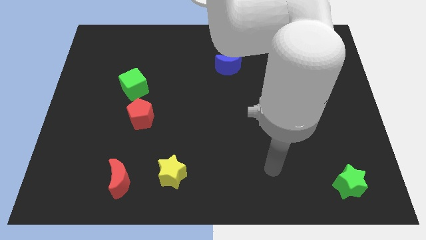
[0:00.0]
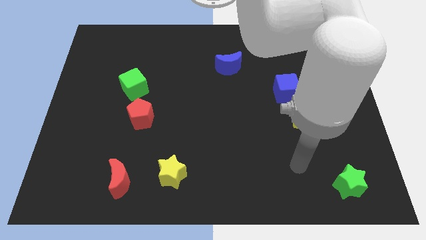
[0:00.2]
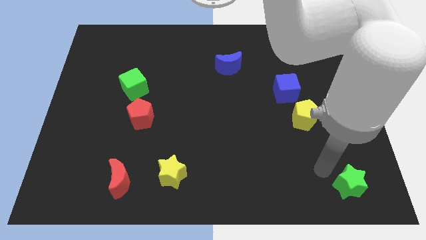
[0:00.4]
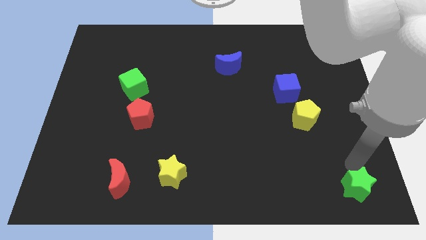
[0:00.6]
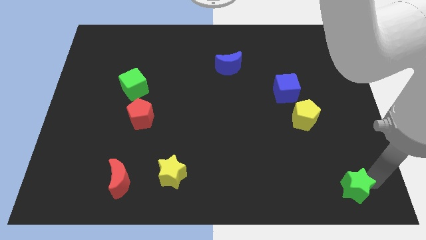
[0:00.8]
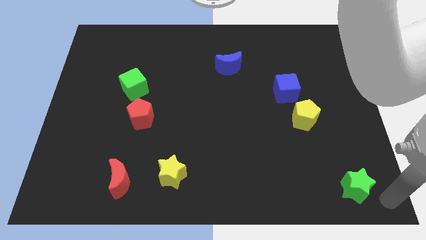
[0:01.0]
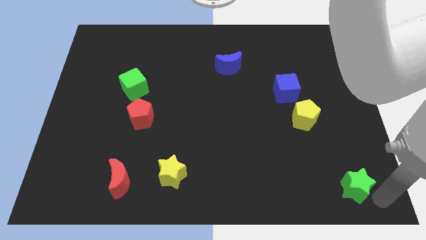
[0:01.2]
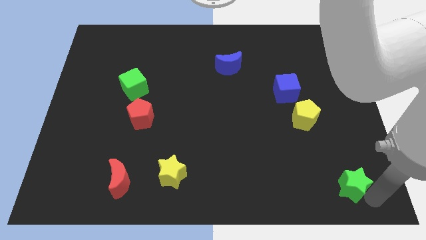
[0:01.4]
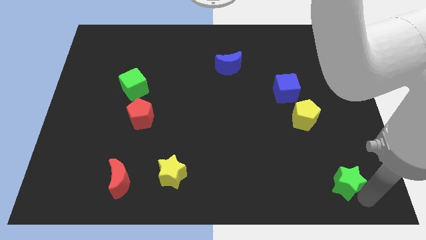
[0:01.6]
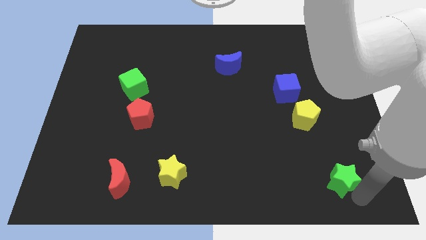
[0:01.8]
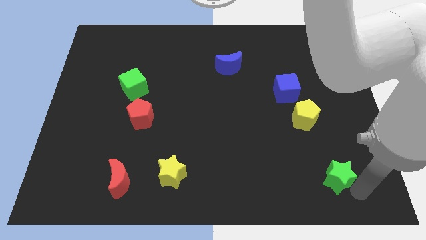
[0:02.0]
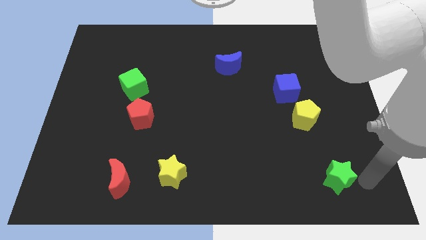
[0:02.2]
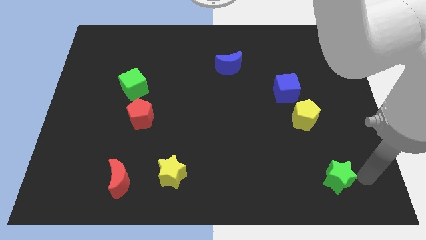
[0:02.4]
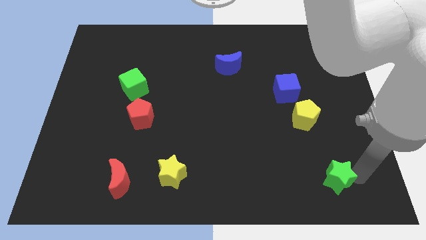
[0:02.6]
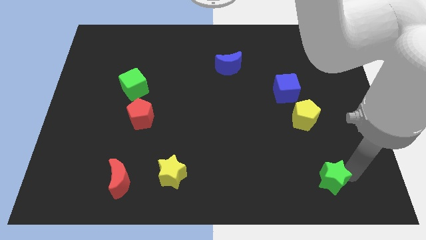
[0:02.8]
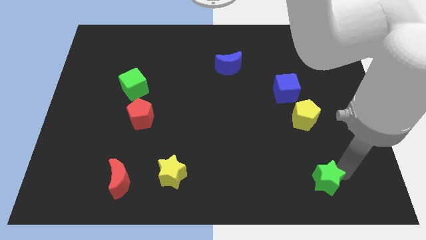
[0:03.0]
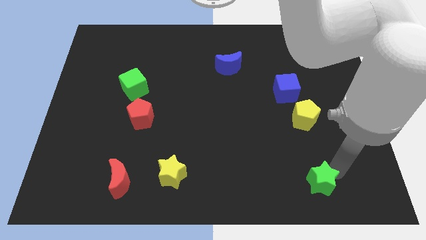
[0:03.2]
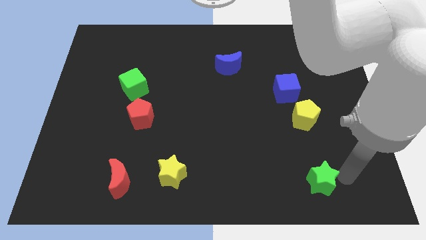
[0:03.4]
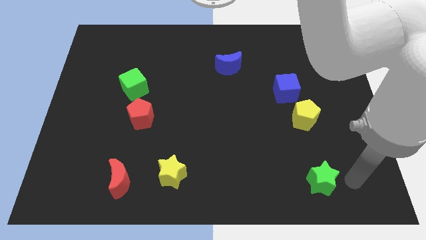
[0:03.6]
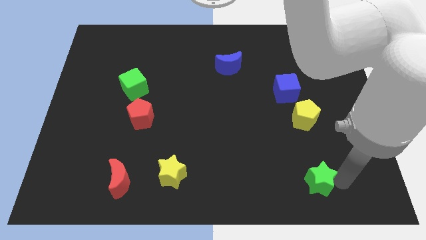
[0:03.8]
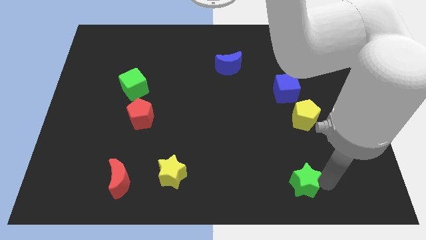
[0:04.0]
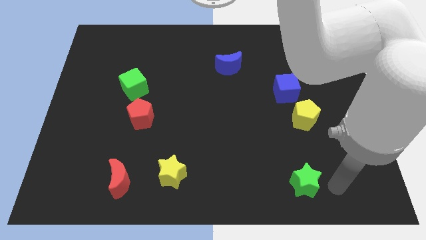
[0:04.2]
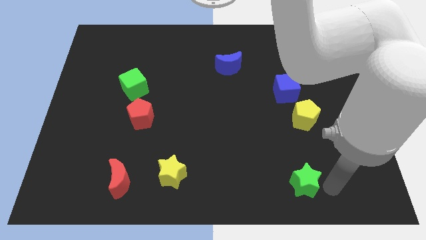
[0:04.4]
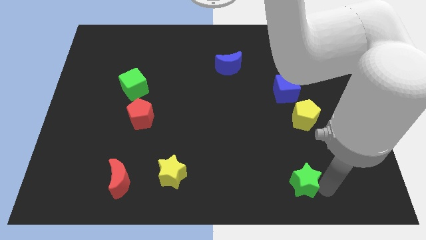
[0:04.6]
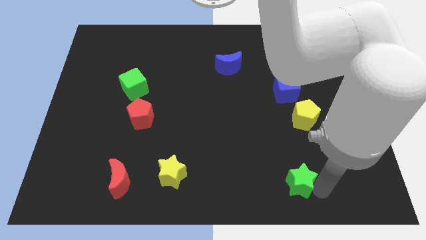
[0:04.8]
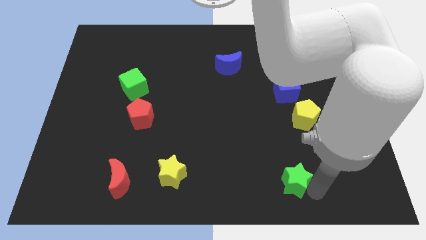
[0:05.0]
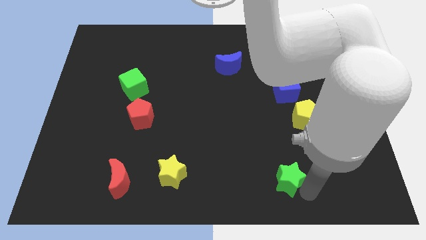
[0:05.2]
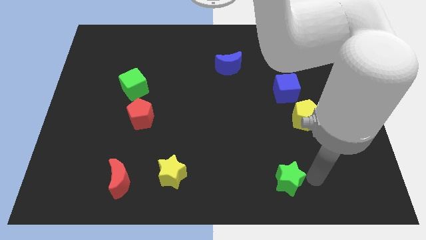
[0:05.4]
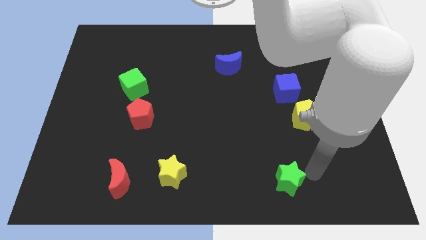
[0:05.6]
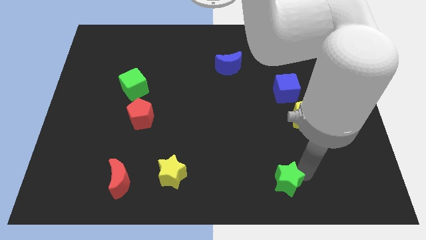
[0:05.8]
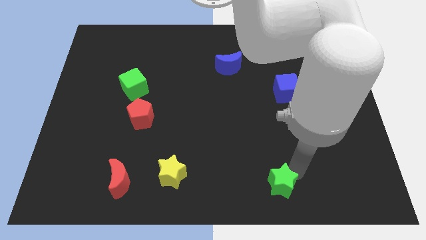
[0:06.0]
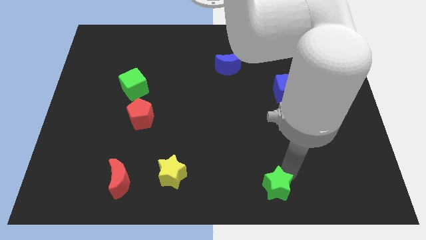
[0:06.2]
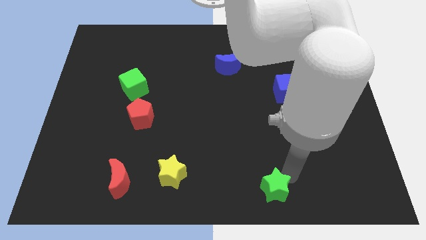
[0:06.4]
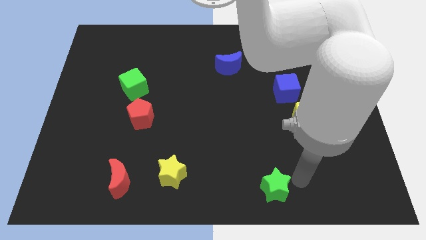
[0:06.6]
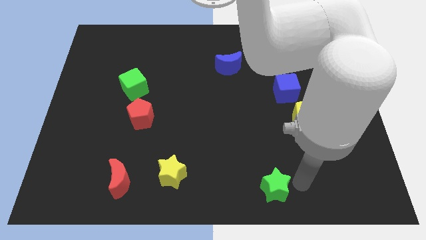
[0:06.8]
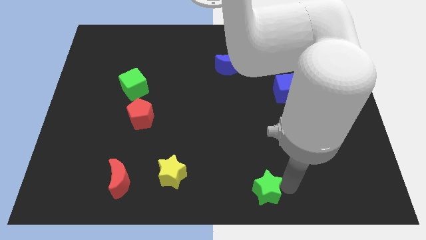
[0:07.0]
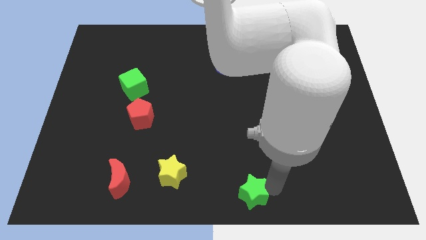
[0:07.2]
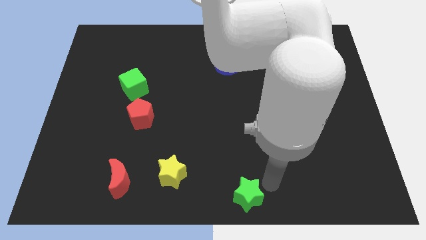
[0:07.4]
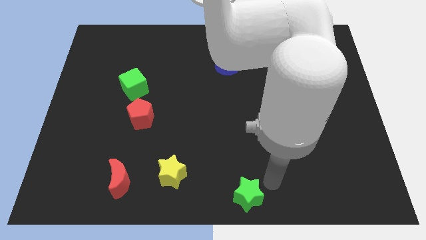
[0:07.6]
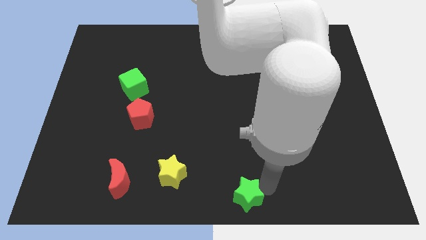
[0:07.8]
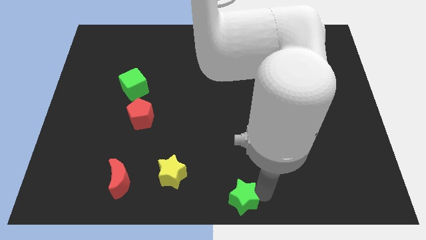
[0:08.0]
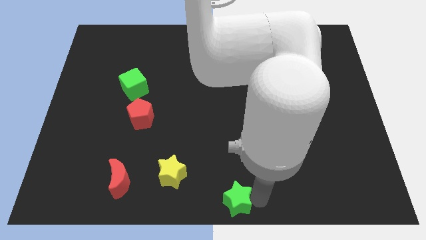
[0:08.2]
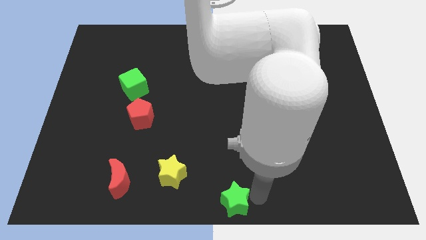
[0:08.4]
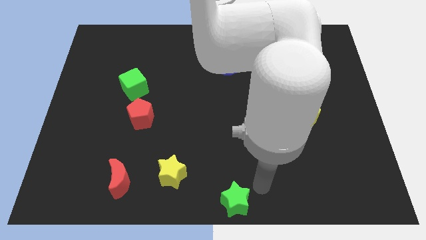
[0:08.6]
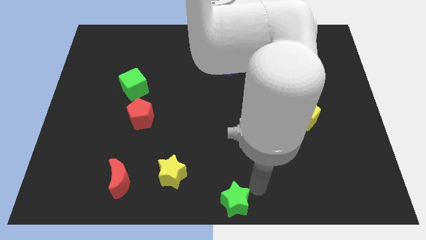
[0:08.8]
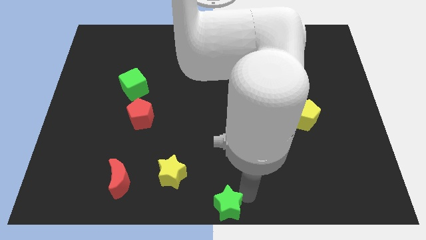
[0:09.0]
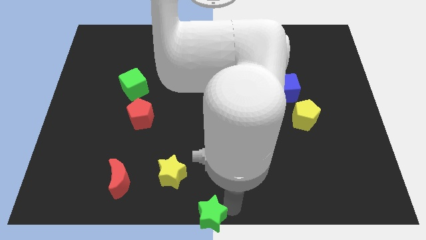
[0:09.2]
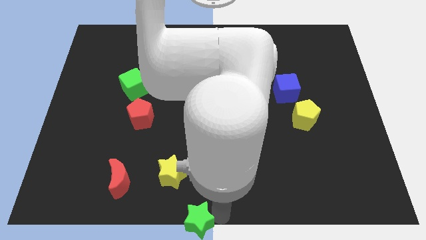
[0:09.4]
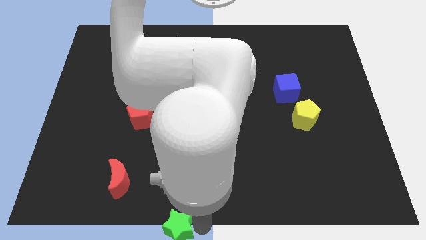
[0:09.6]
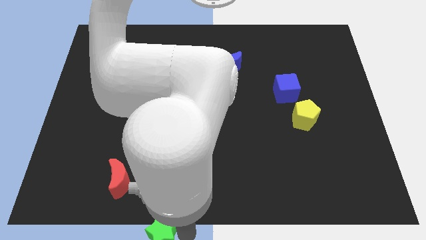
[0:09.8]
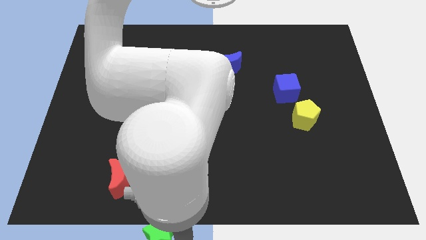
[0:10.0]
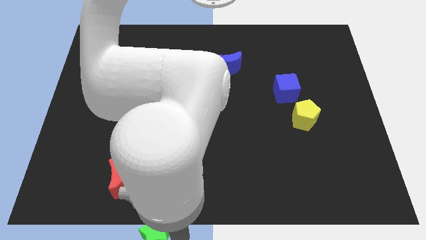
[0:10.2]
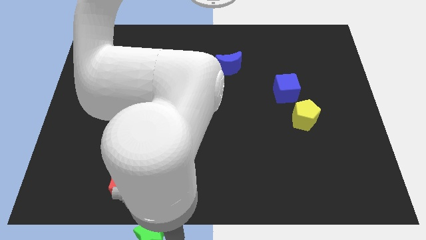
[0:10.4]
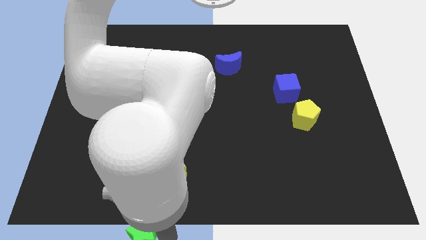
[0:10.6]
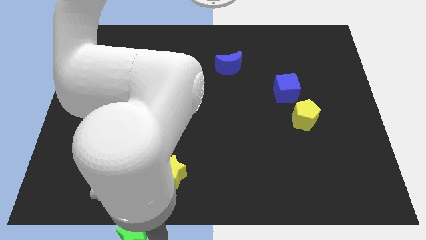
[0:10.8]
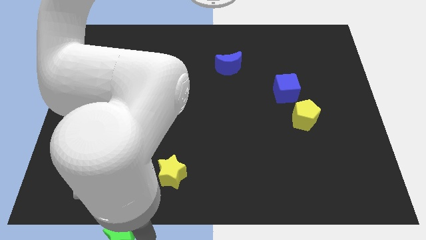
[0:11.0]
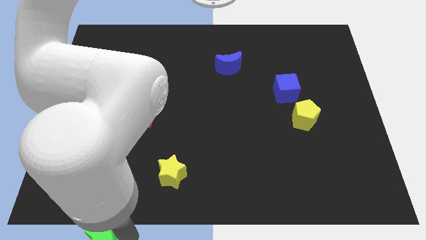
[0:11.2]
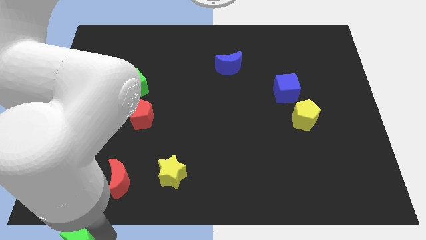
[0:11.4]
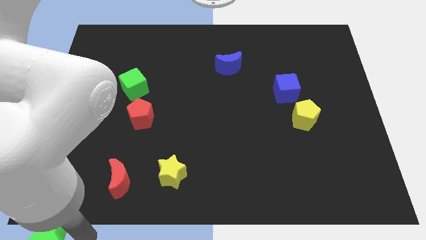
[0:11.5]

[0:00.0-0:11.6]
move the green star to the bottom left
